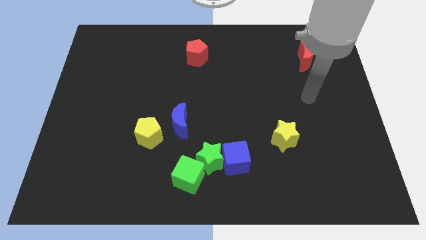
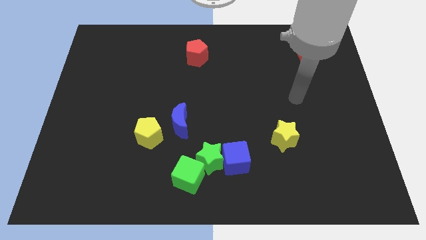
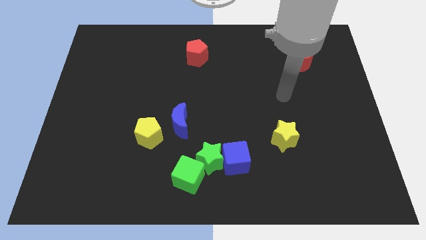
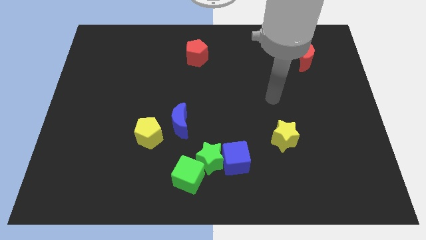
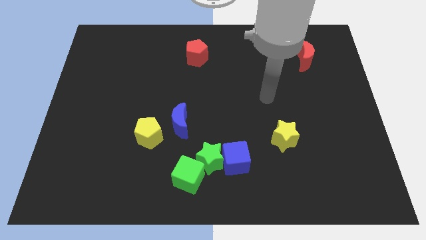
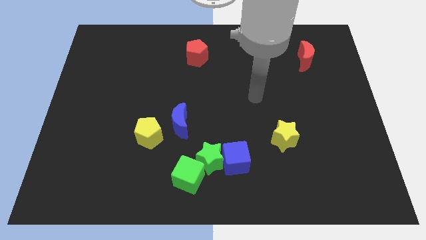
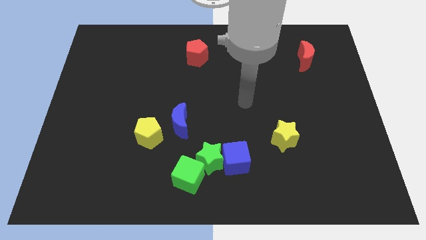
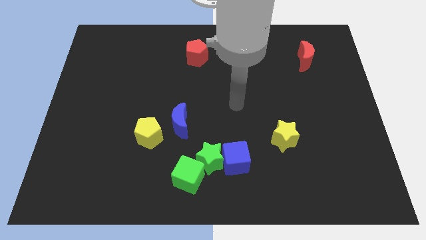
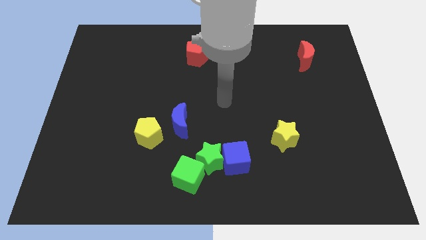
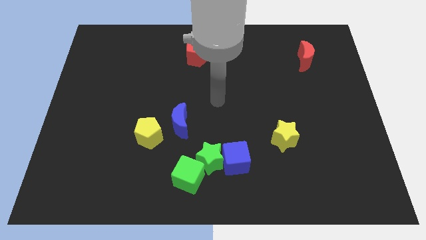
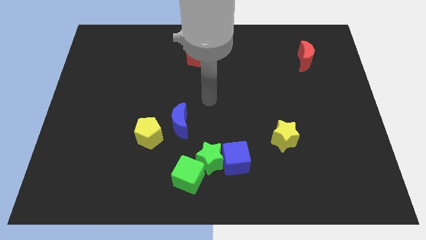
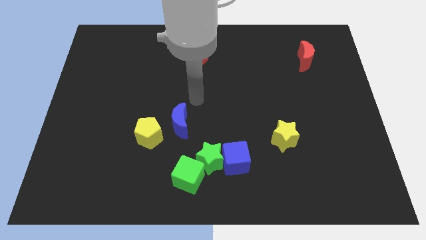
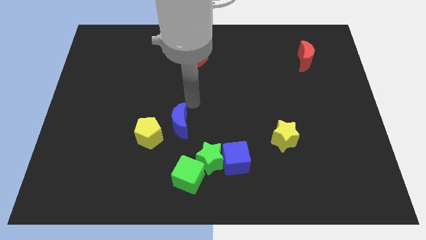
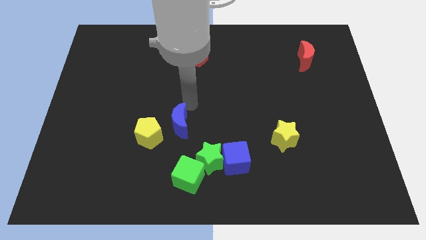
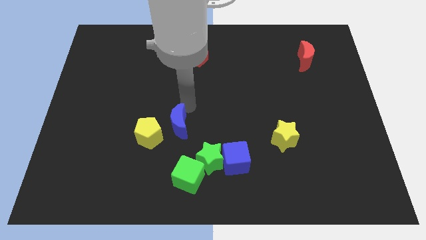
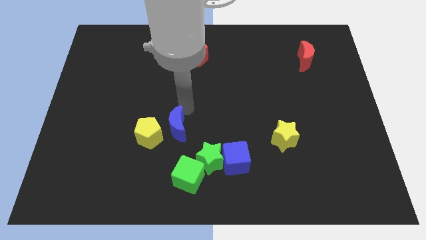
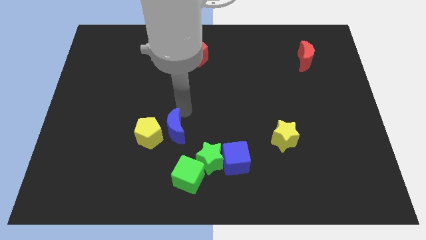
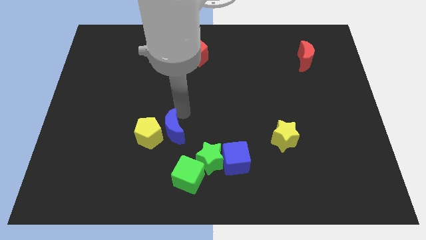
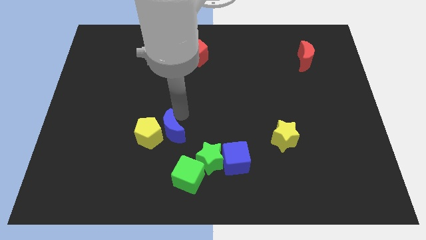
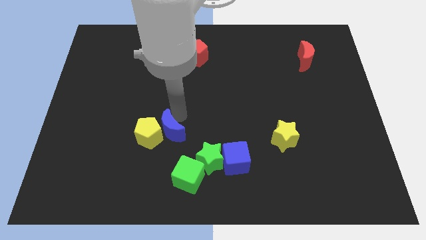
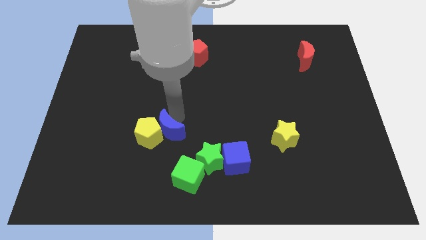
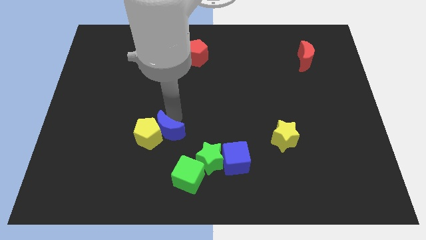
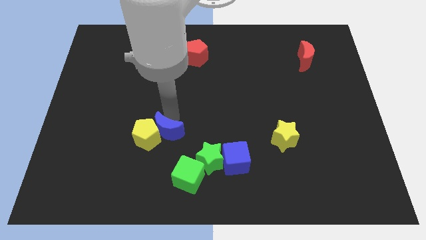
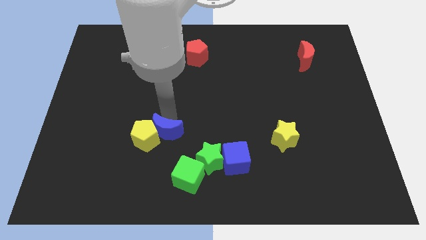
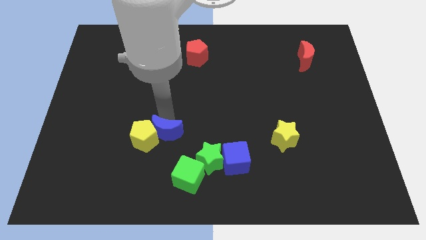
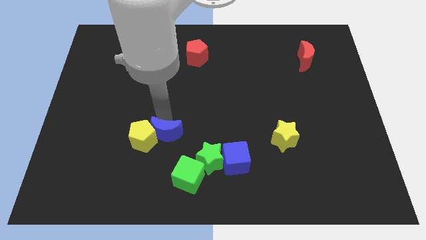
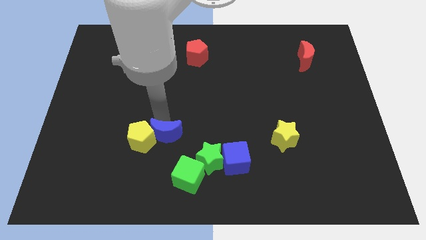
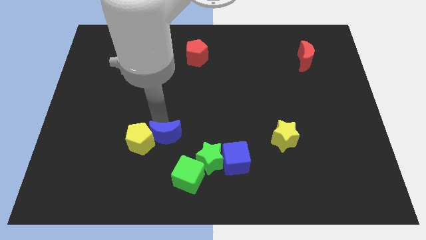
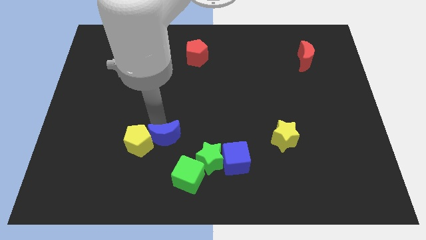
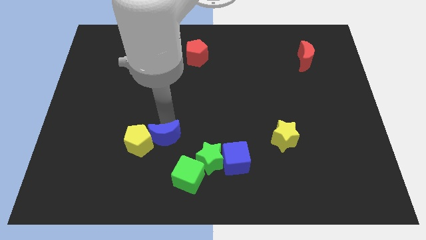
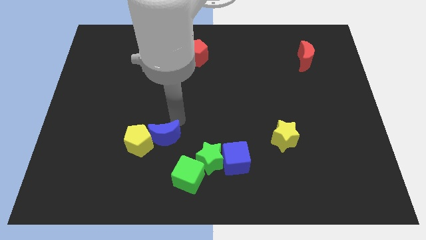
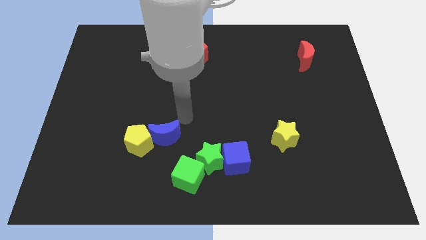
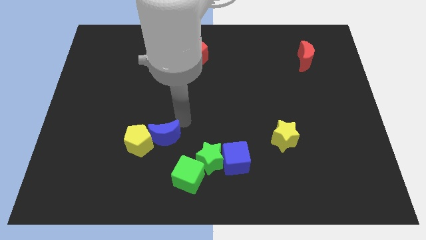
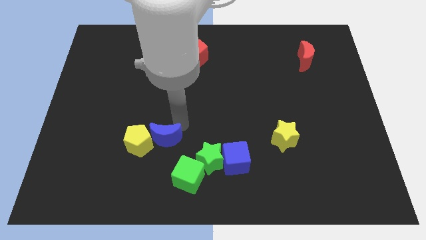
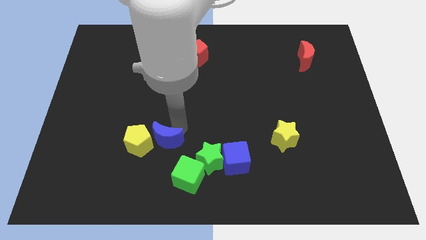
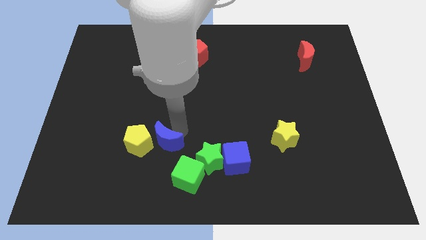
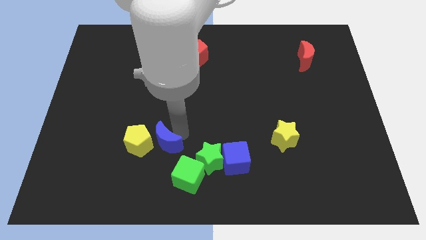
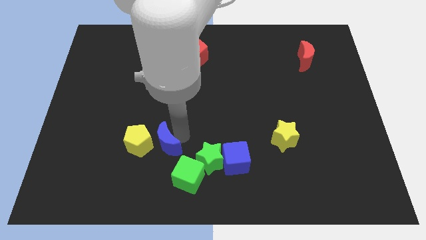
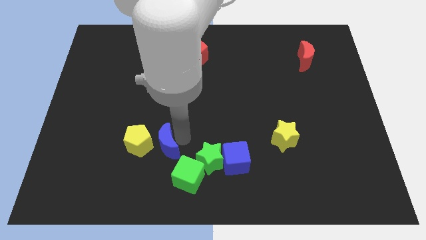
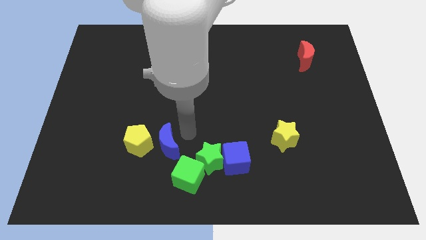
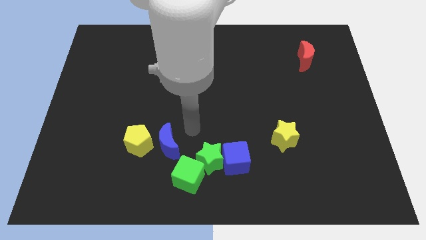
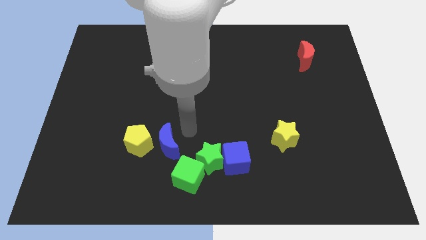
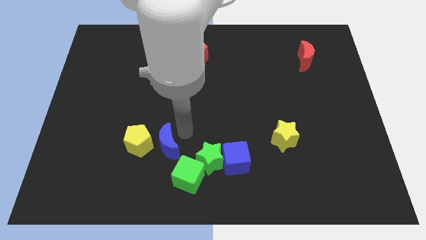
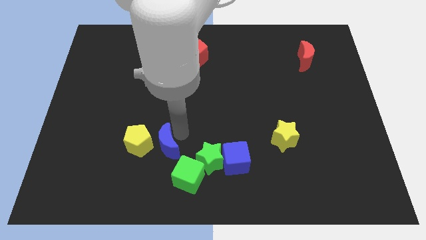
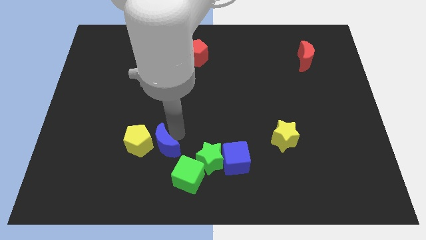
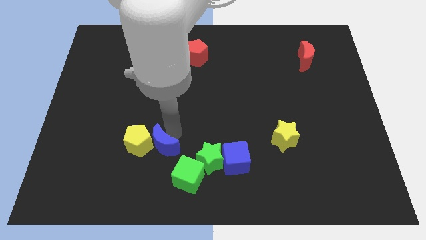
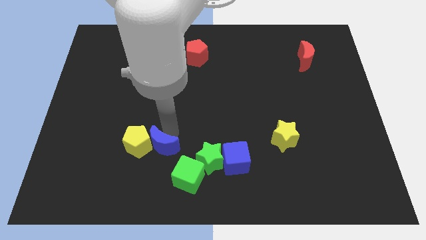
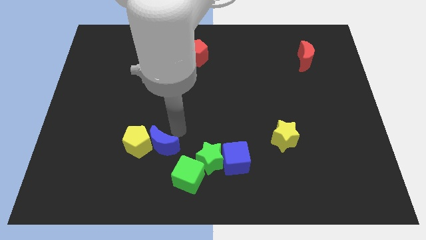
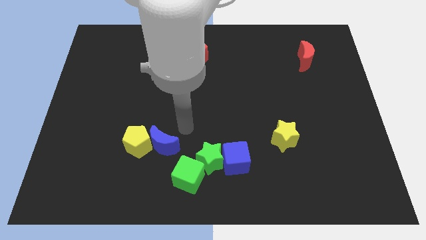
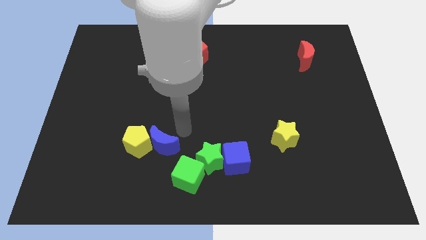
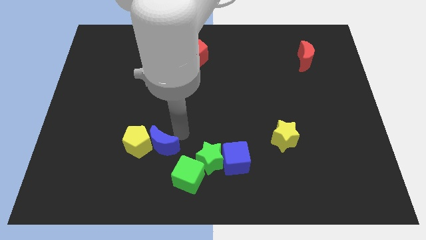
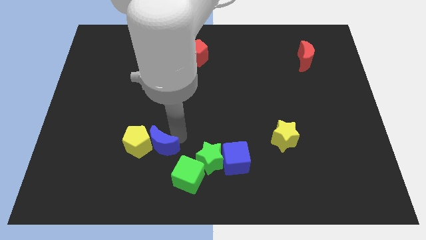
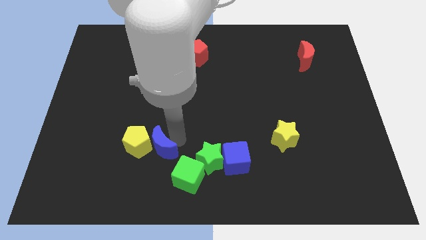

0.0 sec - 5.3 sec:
slightly push the blue moon diagonally down and left

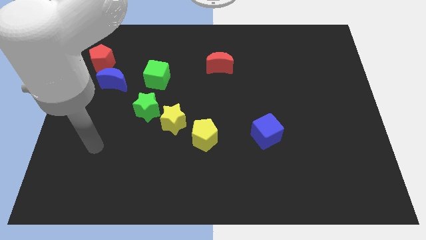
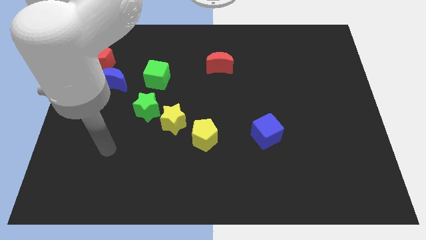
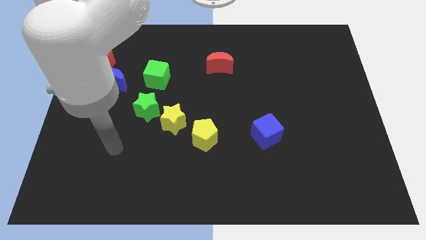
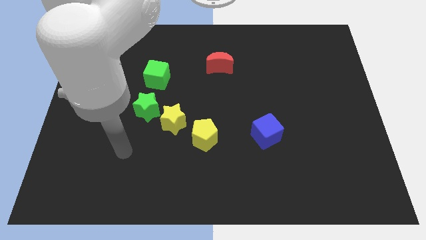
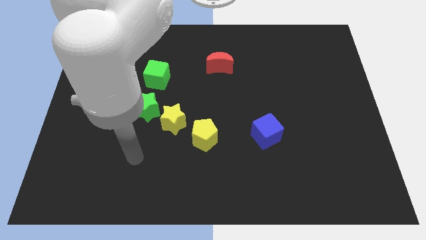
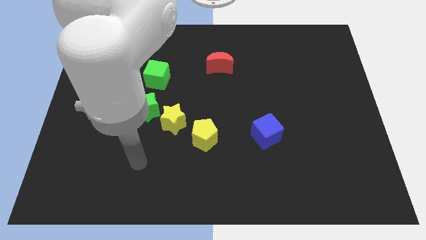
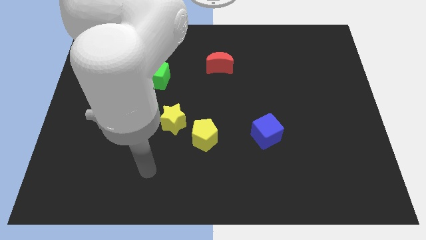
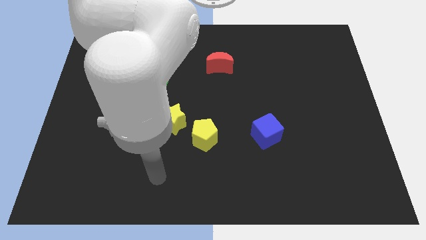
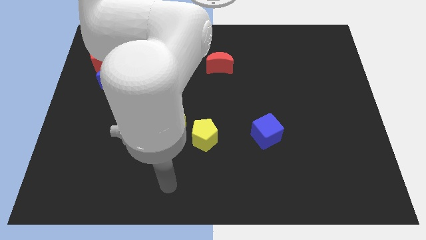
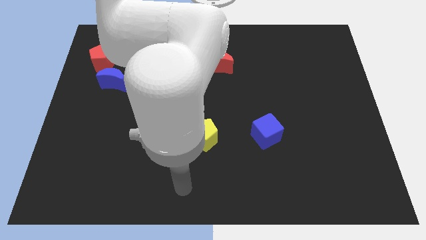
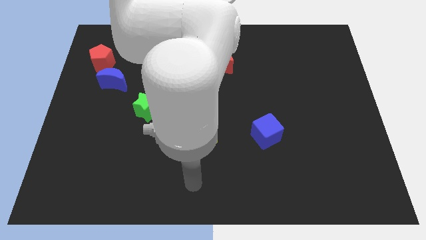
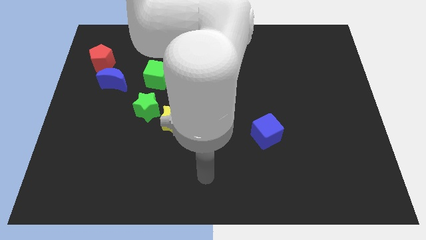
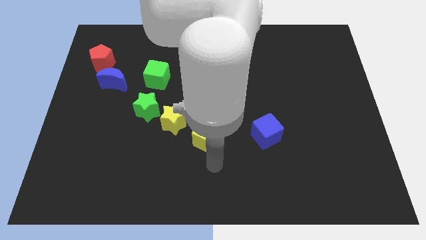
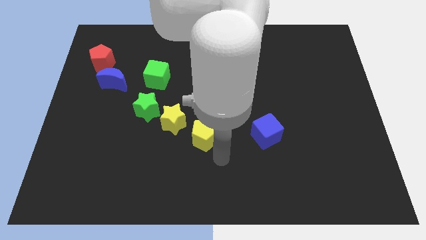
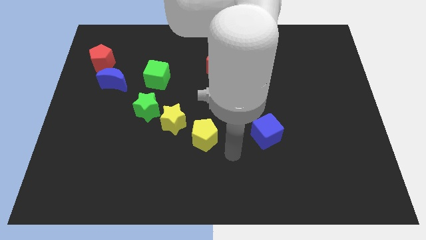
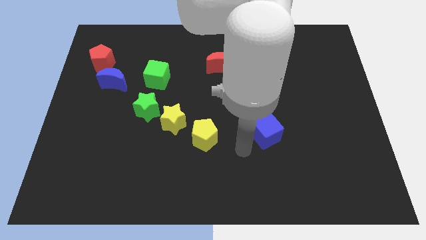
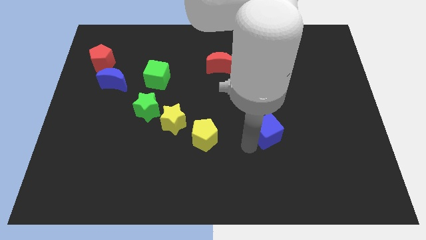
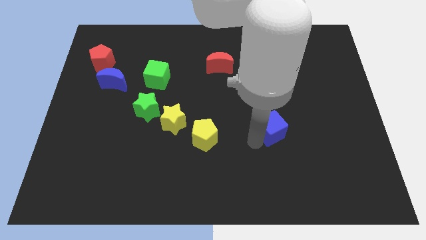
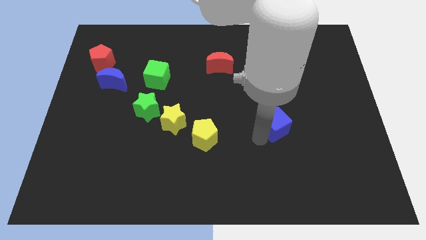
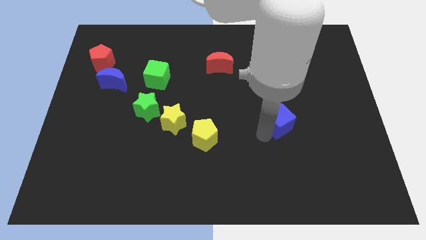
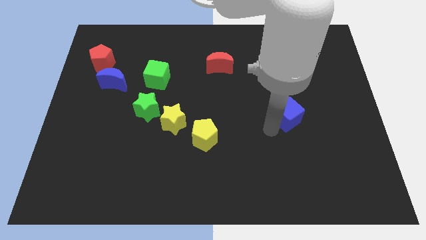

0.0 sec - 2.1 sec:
slightly push the blue cube upwards and right diagonally

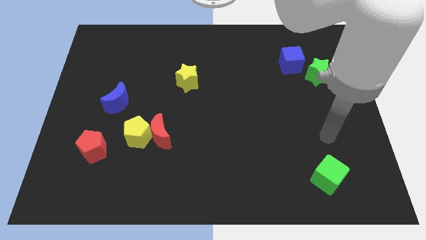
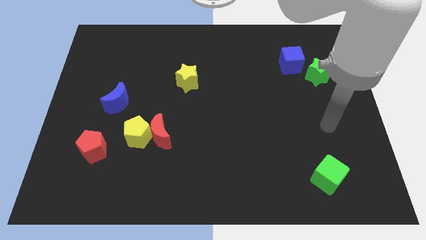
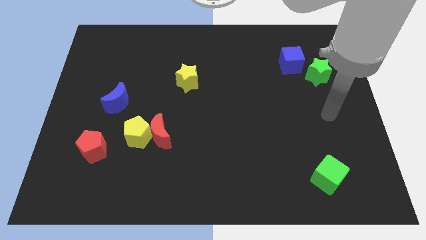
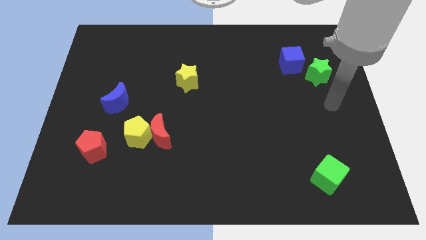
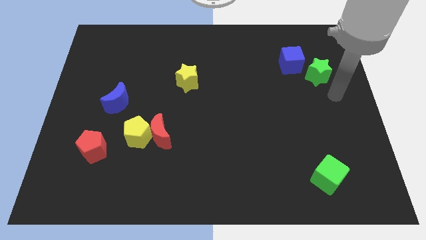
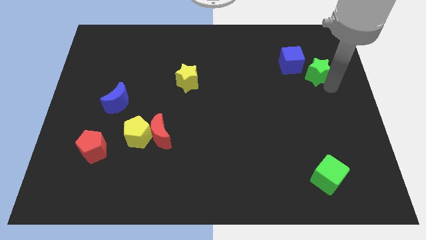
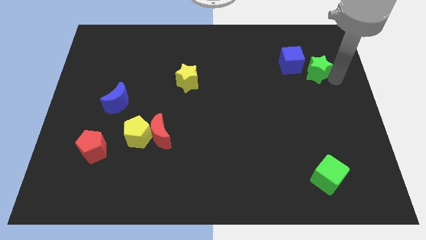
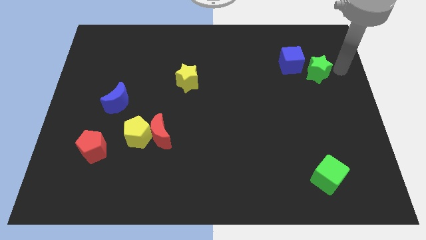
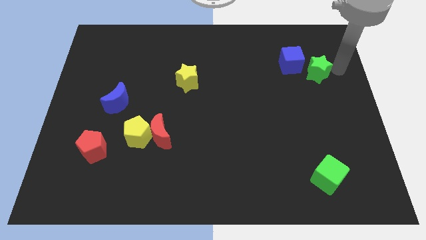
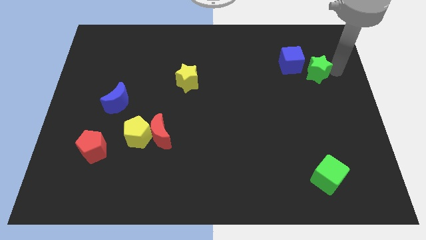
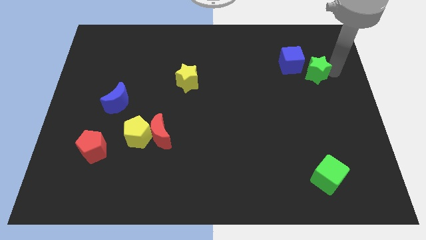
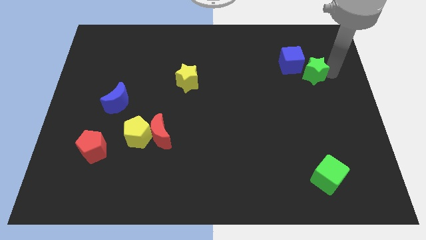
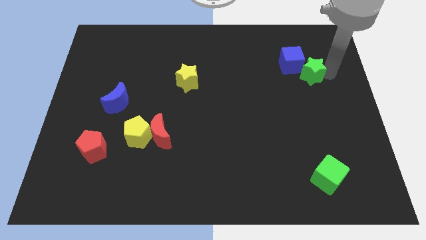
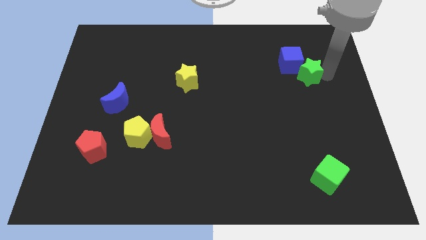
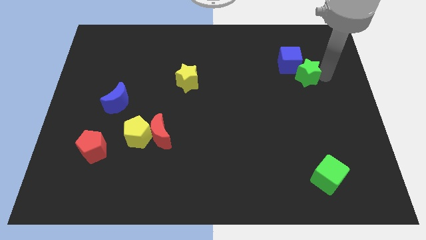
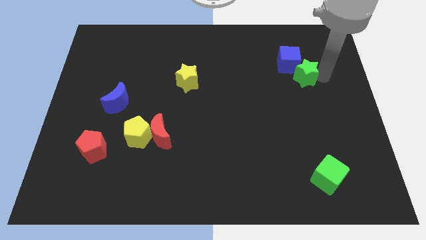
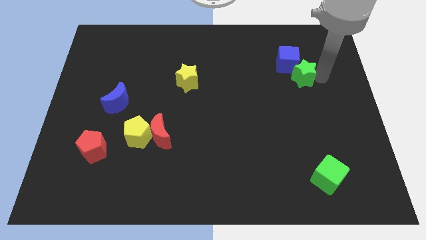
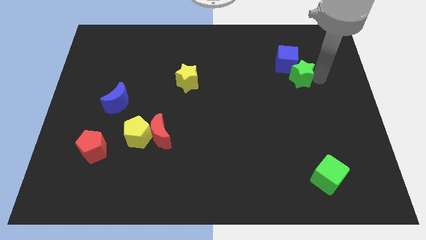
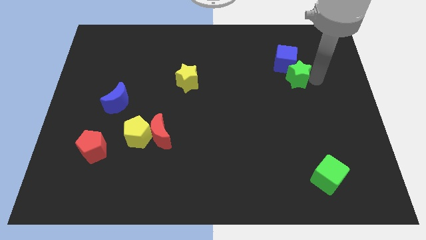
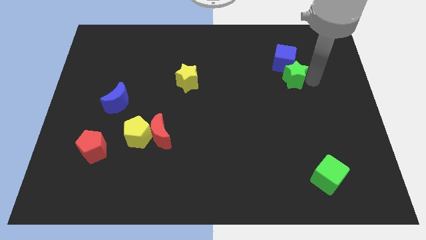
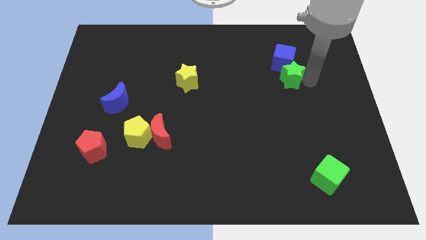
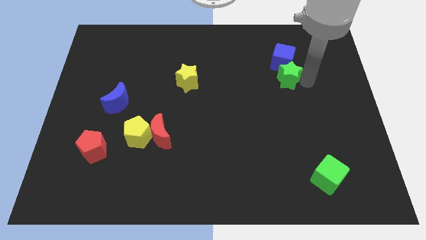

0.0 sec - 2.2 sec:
slide the green star slightly to the left
